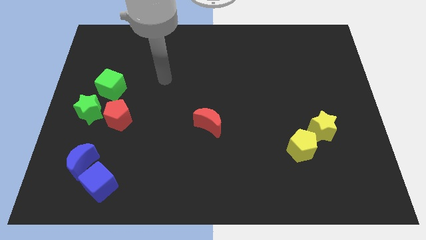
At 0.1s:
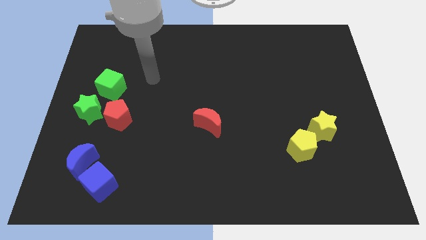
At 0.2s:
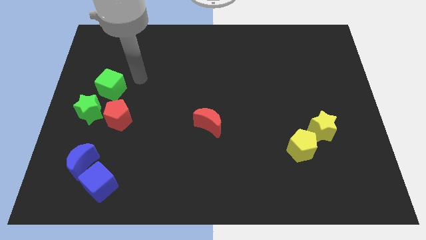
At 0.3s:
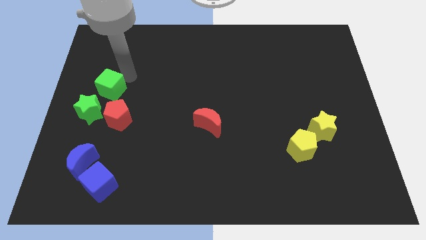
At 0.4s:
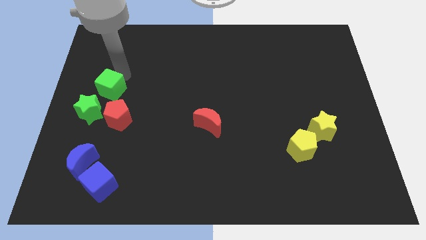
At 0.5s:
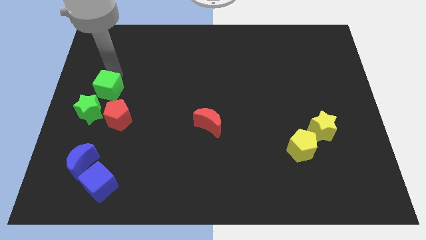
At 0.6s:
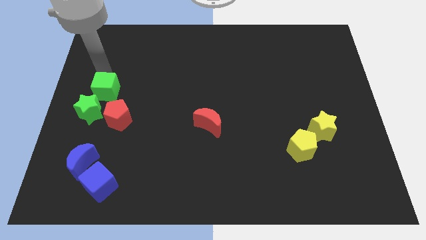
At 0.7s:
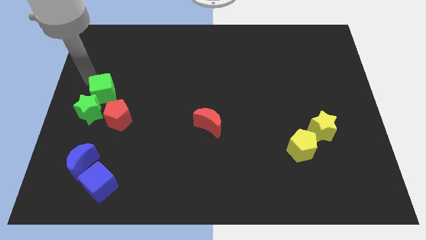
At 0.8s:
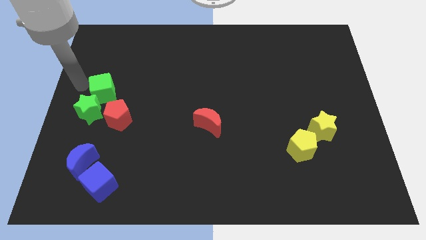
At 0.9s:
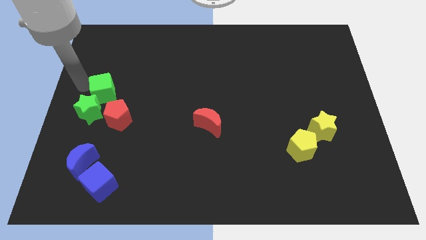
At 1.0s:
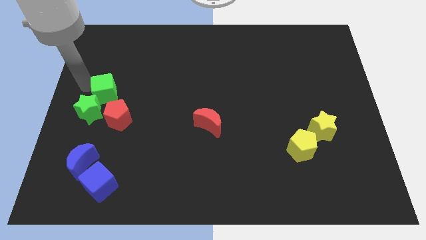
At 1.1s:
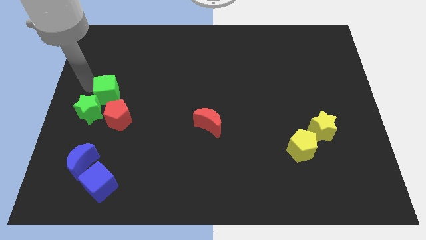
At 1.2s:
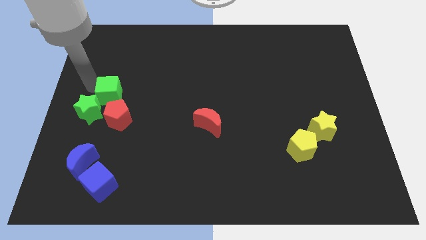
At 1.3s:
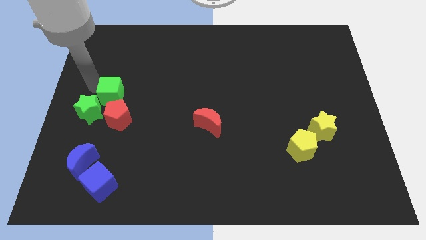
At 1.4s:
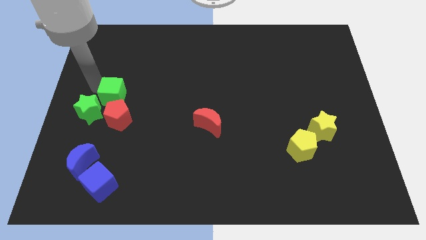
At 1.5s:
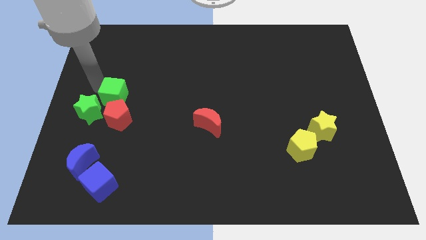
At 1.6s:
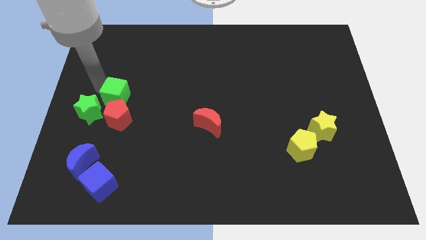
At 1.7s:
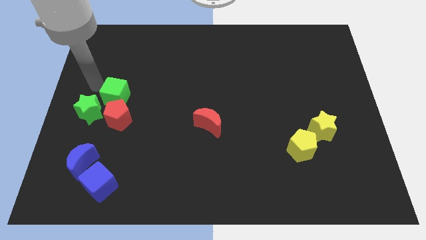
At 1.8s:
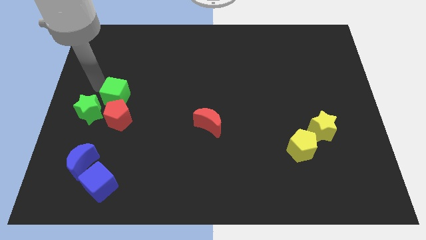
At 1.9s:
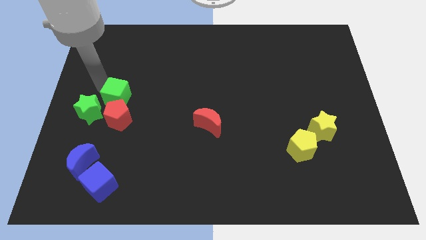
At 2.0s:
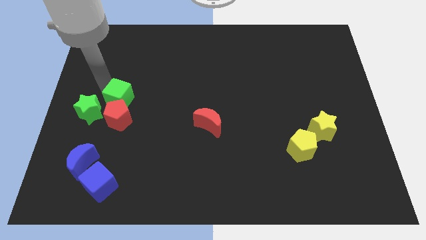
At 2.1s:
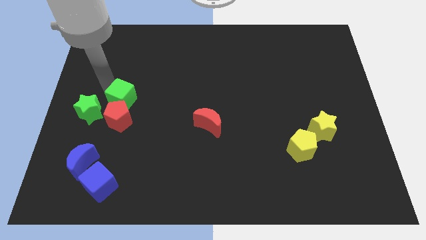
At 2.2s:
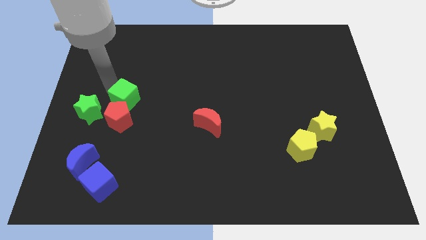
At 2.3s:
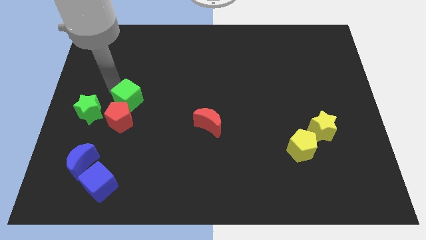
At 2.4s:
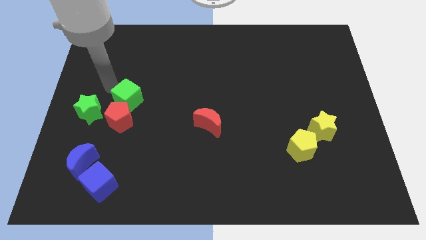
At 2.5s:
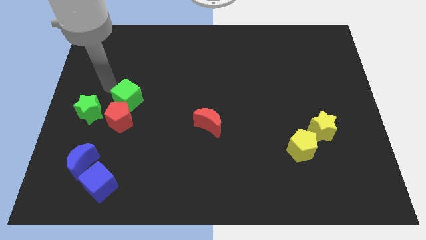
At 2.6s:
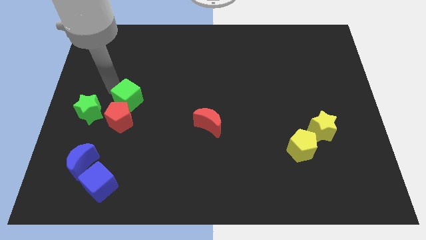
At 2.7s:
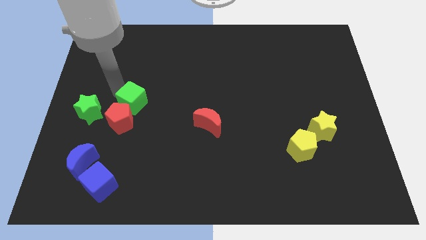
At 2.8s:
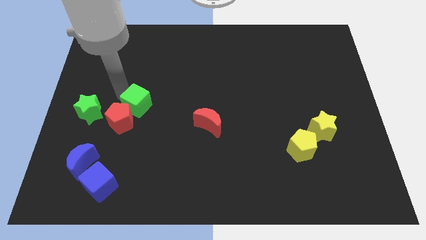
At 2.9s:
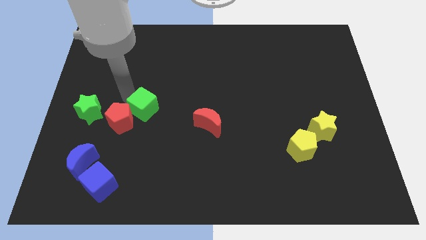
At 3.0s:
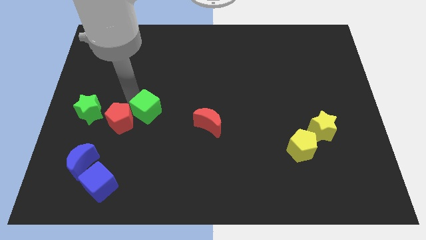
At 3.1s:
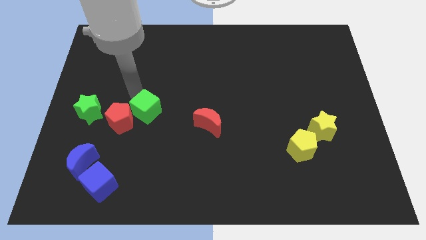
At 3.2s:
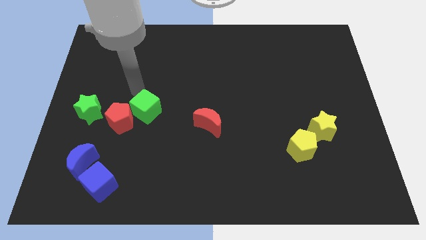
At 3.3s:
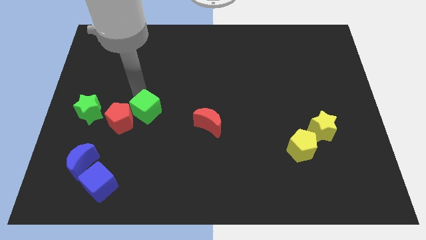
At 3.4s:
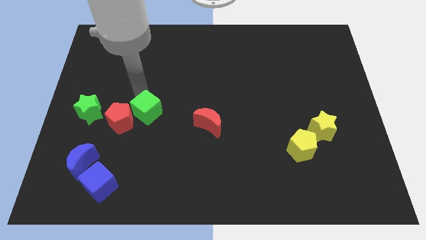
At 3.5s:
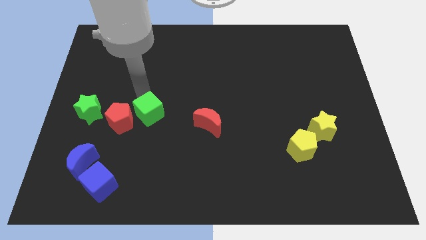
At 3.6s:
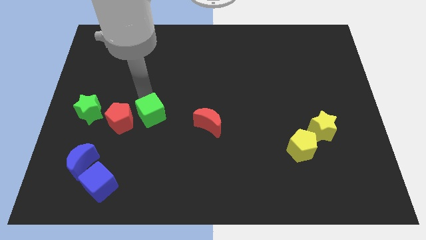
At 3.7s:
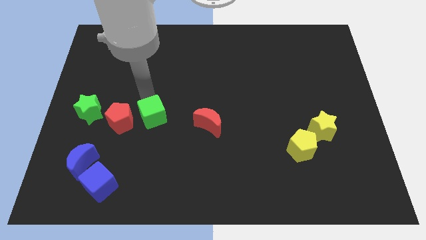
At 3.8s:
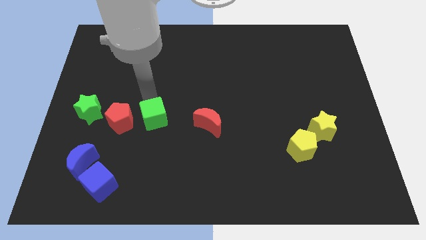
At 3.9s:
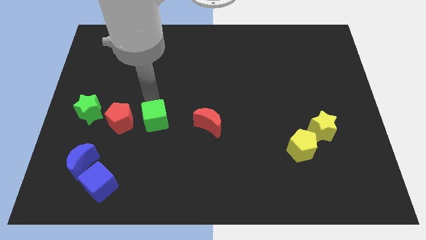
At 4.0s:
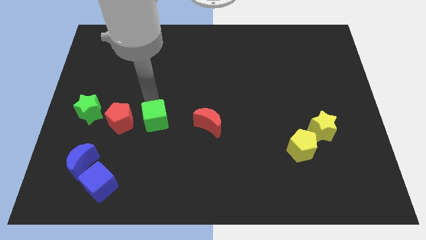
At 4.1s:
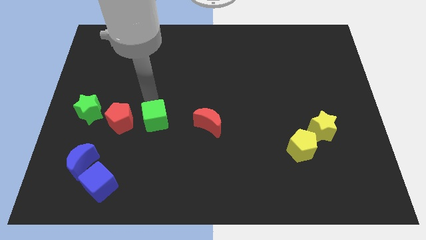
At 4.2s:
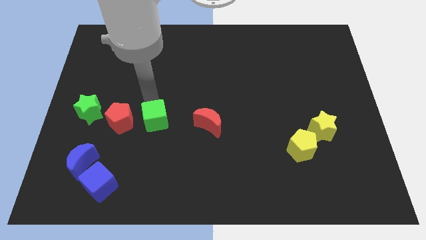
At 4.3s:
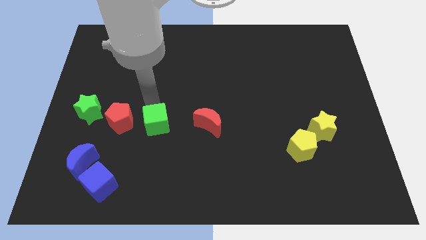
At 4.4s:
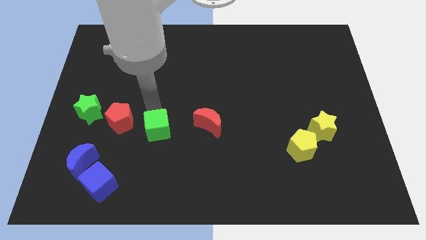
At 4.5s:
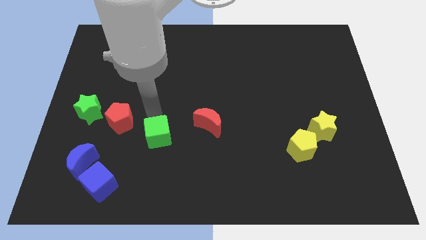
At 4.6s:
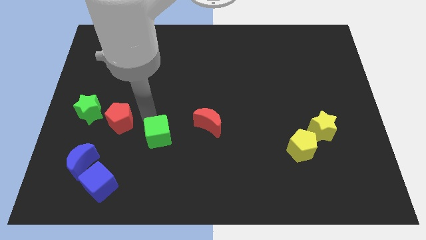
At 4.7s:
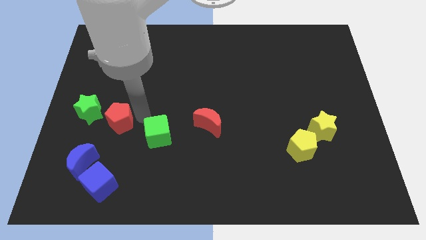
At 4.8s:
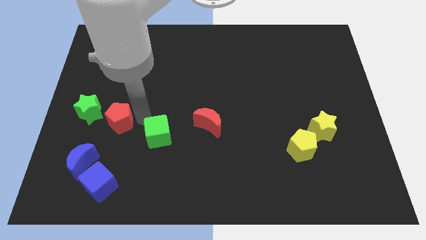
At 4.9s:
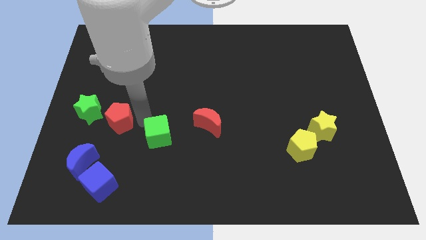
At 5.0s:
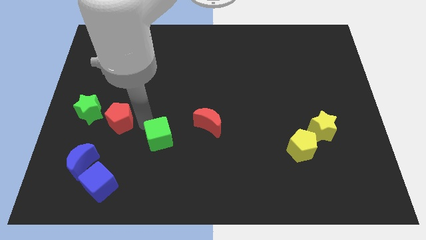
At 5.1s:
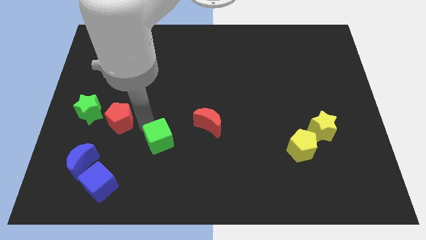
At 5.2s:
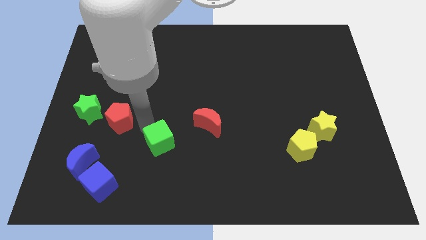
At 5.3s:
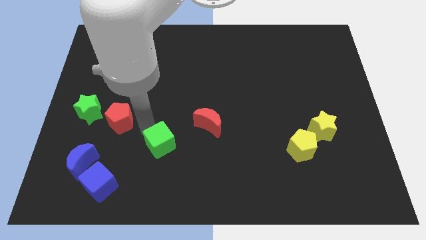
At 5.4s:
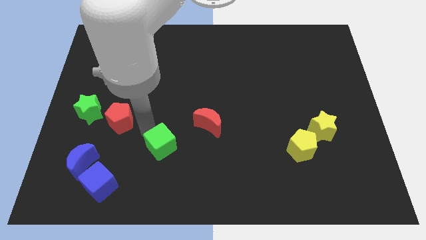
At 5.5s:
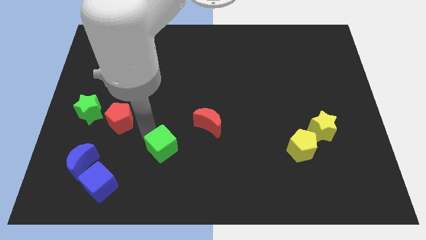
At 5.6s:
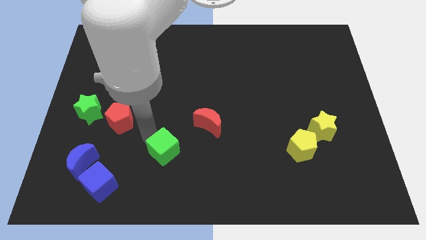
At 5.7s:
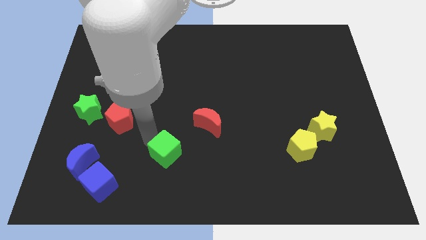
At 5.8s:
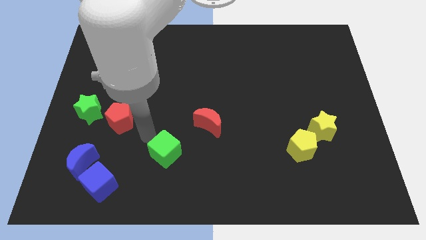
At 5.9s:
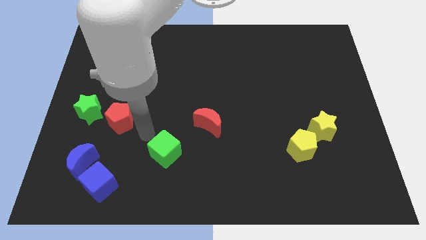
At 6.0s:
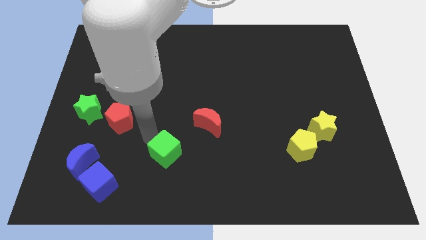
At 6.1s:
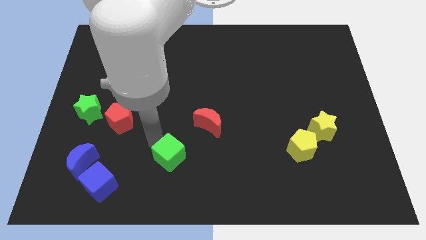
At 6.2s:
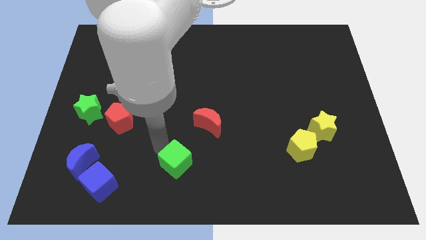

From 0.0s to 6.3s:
put the green cube to the bottom side
